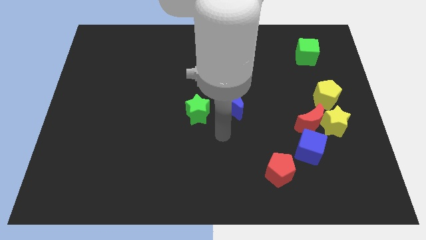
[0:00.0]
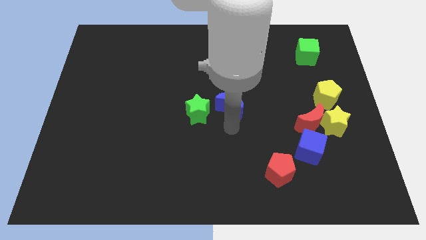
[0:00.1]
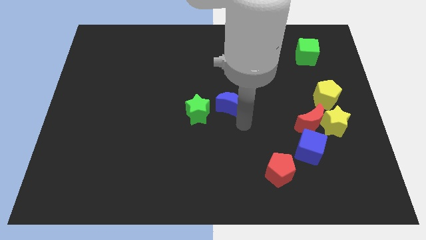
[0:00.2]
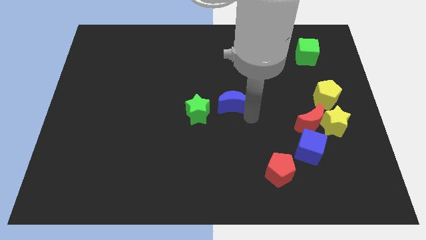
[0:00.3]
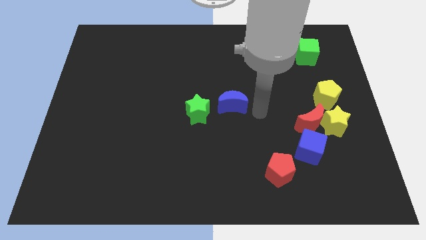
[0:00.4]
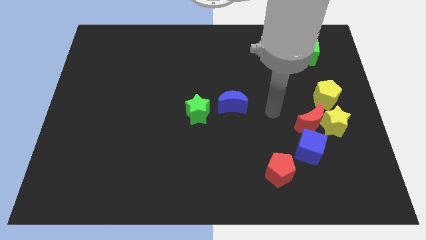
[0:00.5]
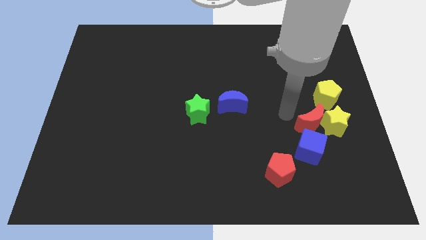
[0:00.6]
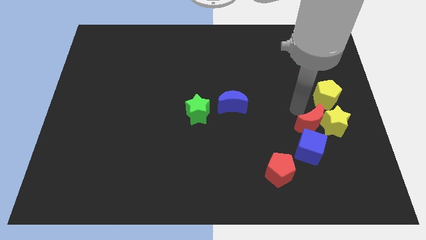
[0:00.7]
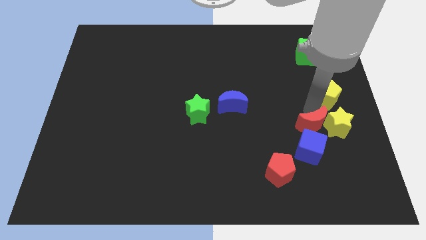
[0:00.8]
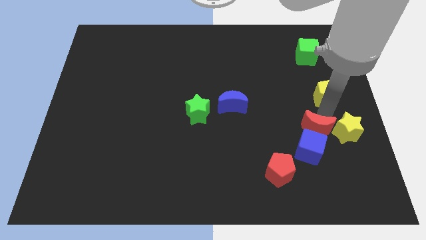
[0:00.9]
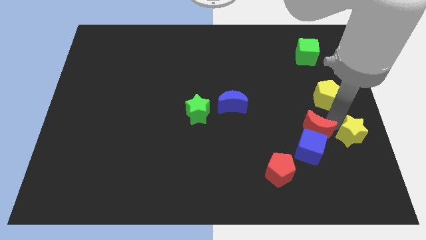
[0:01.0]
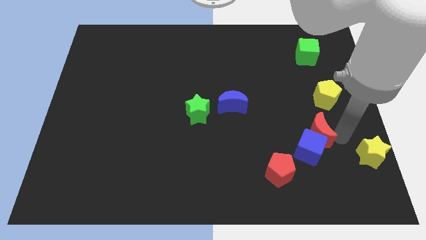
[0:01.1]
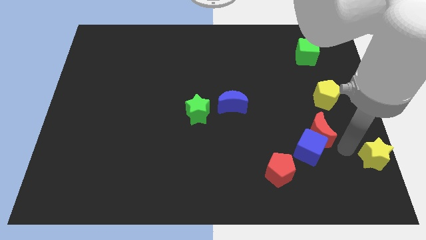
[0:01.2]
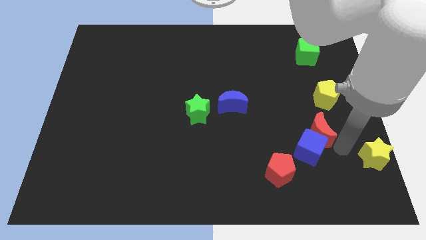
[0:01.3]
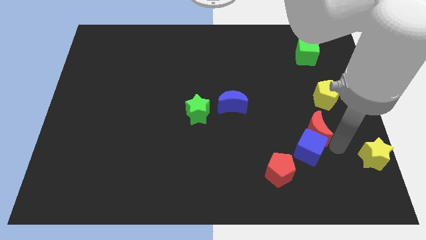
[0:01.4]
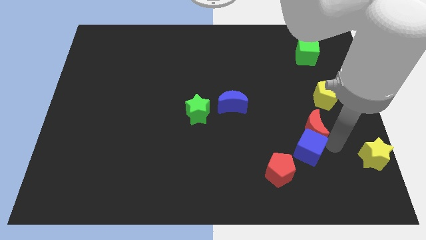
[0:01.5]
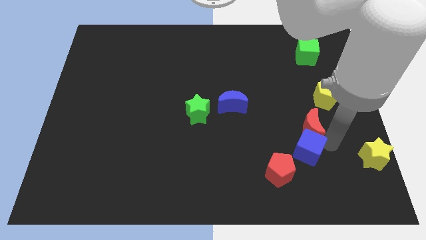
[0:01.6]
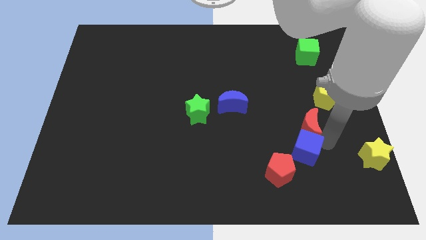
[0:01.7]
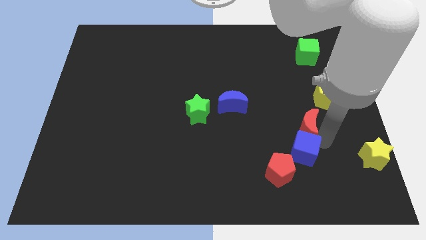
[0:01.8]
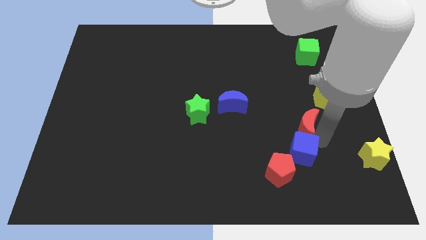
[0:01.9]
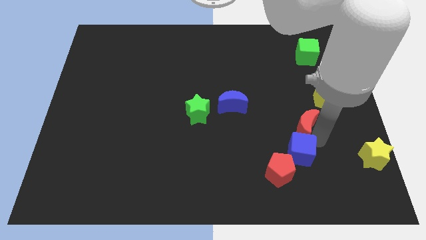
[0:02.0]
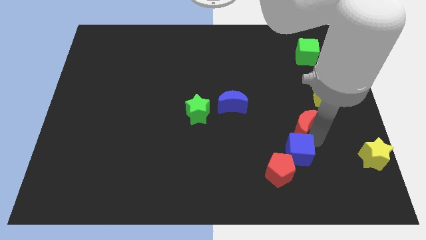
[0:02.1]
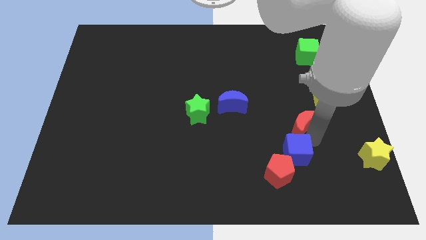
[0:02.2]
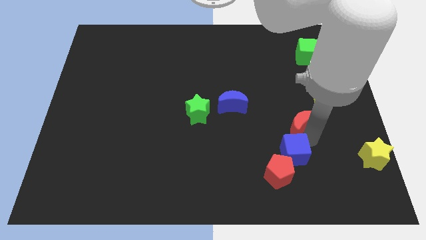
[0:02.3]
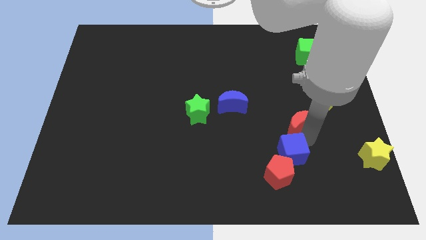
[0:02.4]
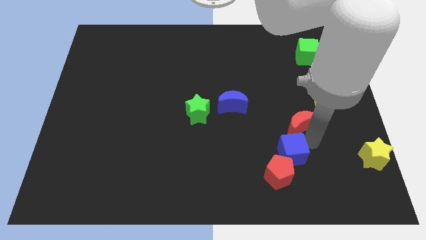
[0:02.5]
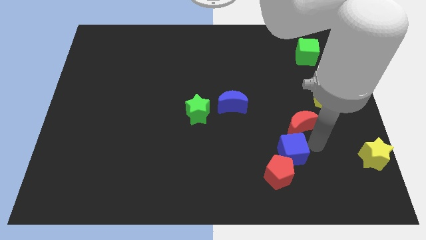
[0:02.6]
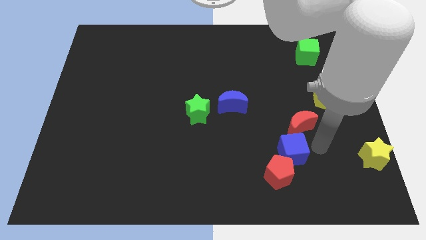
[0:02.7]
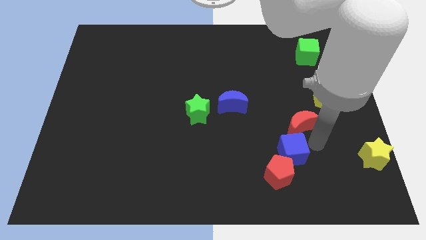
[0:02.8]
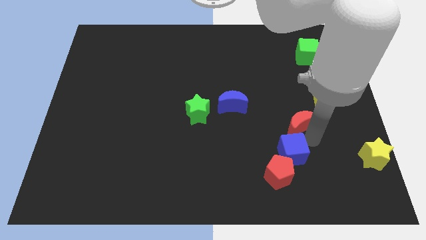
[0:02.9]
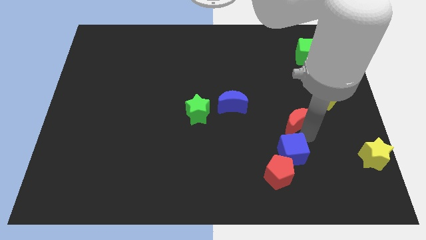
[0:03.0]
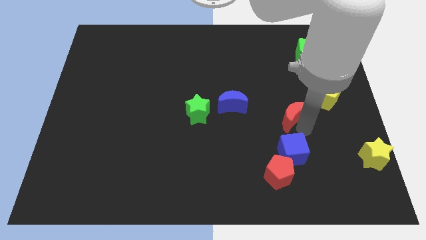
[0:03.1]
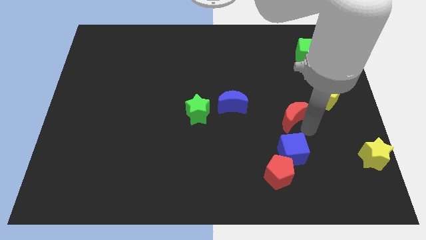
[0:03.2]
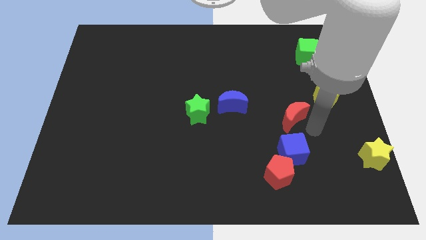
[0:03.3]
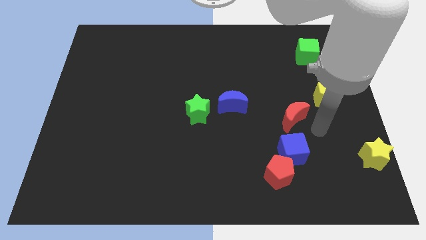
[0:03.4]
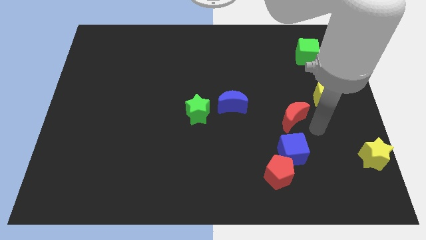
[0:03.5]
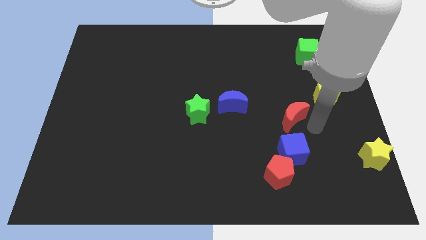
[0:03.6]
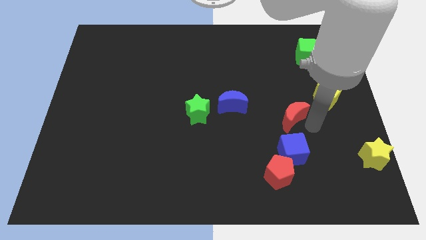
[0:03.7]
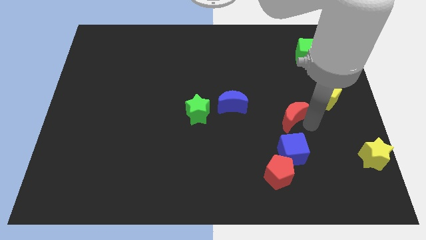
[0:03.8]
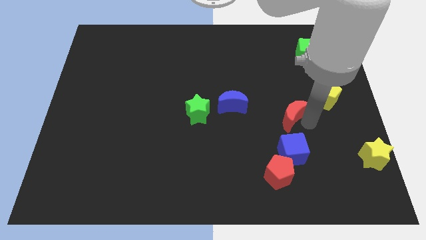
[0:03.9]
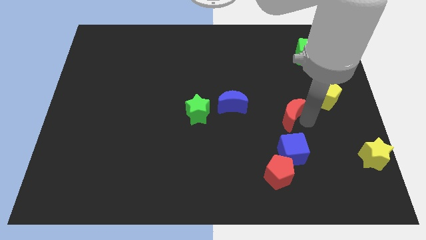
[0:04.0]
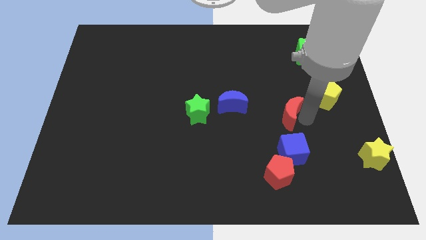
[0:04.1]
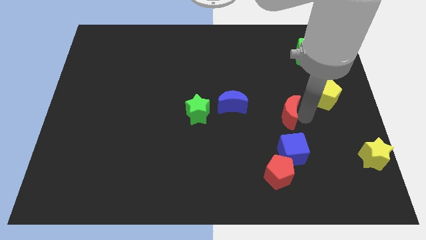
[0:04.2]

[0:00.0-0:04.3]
pull the red moon apart from the clump

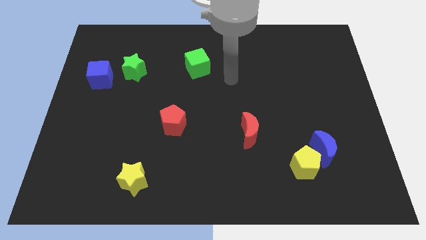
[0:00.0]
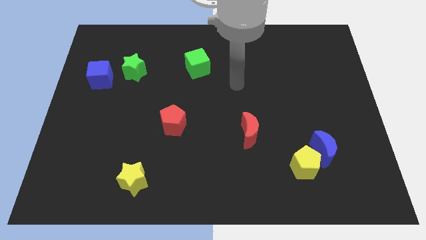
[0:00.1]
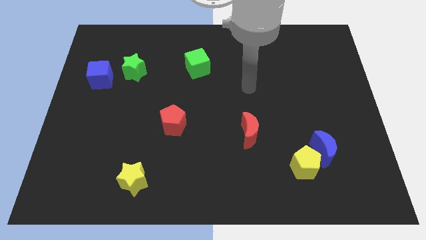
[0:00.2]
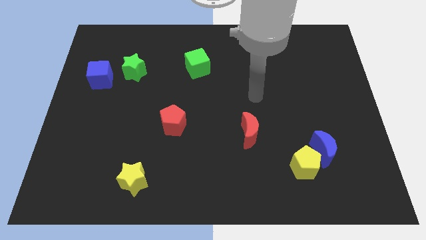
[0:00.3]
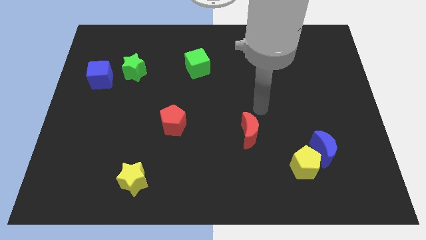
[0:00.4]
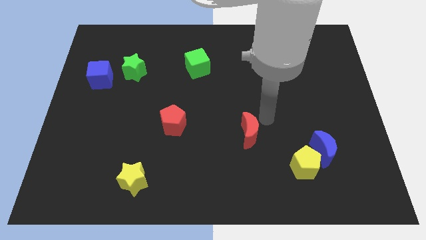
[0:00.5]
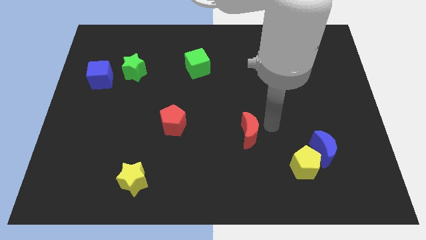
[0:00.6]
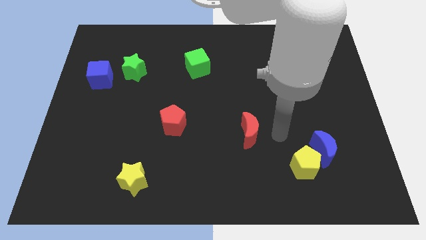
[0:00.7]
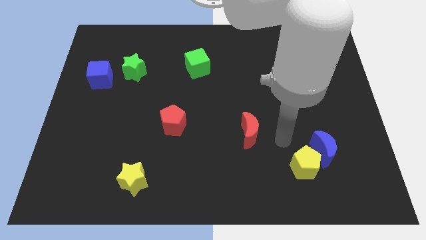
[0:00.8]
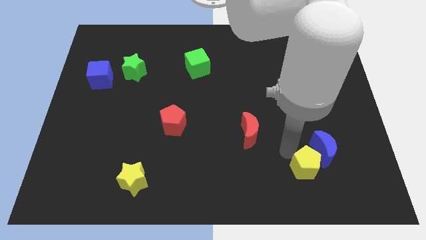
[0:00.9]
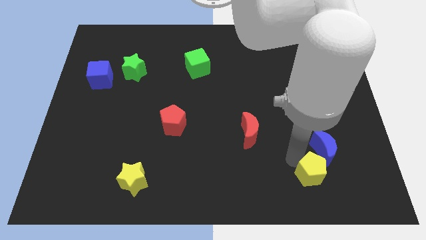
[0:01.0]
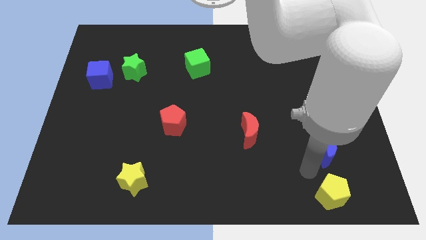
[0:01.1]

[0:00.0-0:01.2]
move the blue moon away from the yellow pentagon

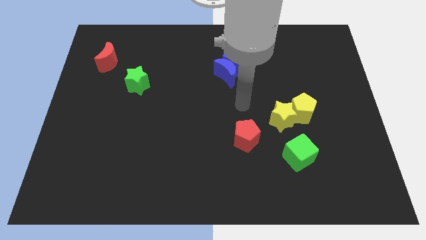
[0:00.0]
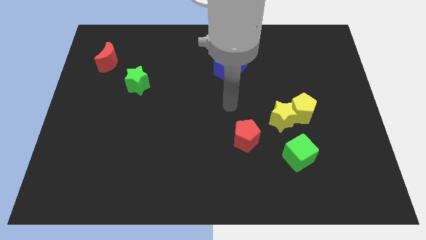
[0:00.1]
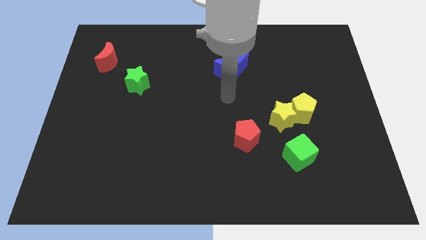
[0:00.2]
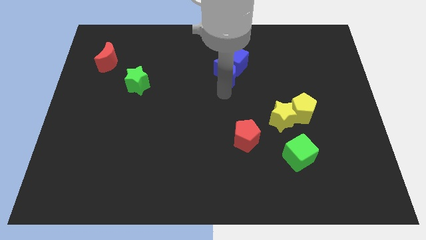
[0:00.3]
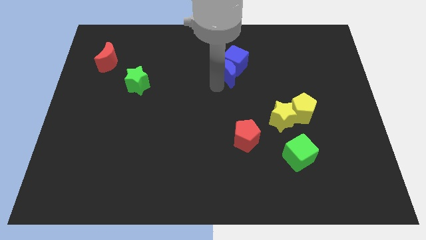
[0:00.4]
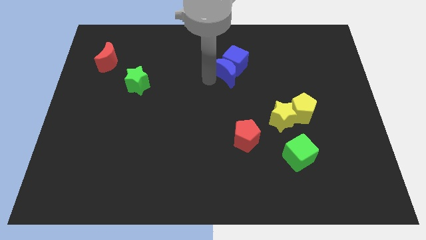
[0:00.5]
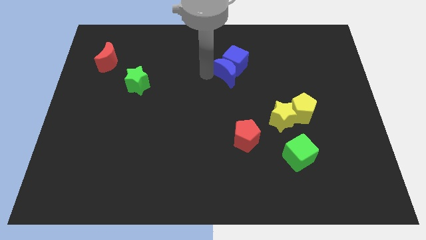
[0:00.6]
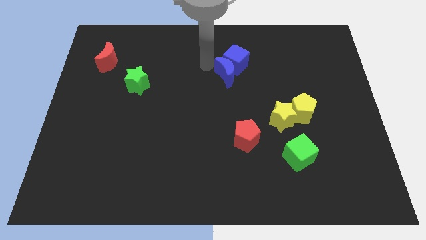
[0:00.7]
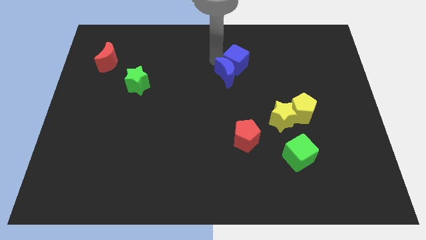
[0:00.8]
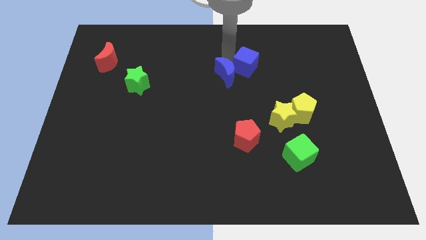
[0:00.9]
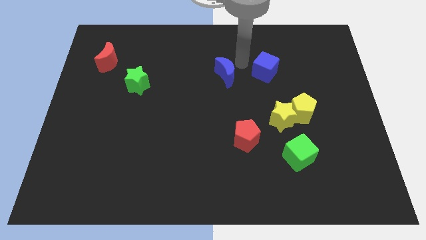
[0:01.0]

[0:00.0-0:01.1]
separate the blue moon from the blue cube

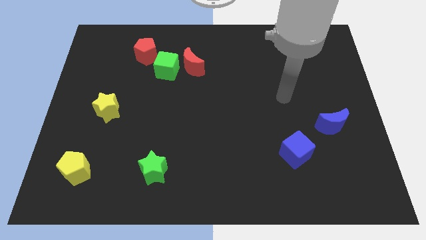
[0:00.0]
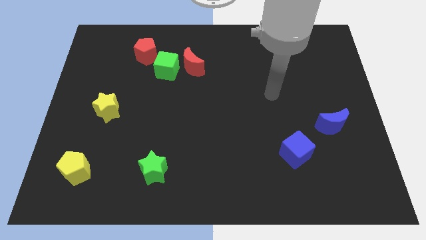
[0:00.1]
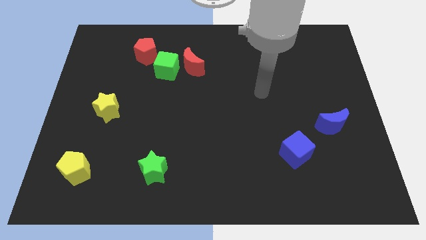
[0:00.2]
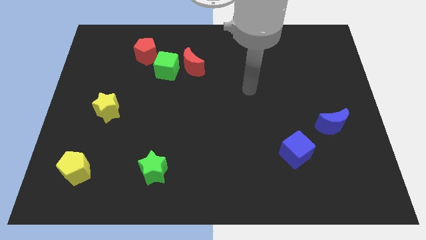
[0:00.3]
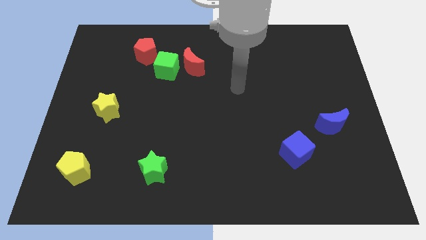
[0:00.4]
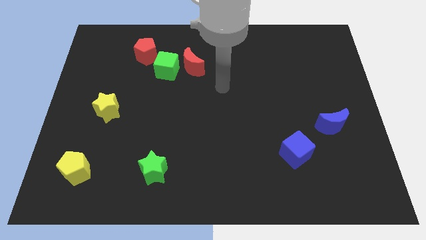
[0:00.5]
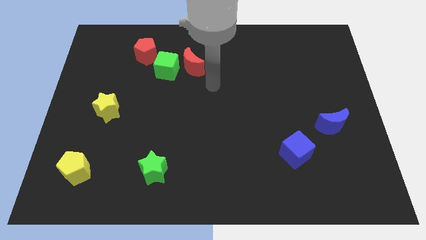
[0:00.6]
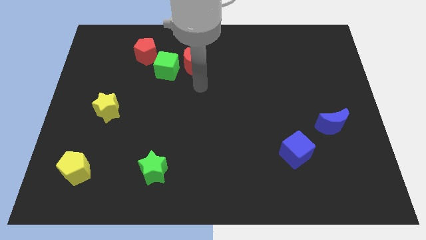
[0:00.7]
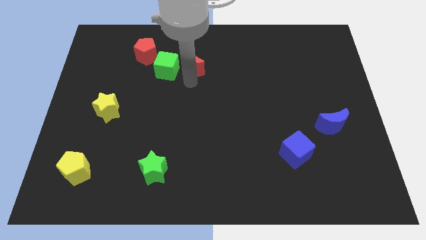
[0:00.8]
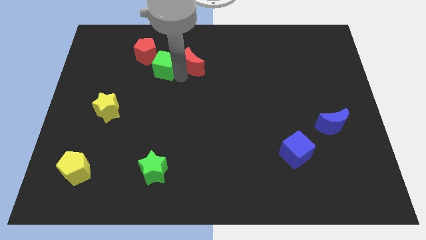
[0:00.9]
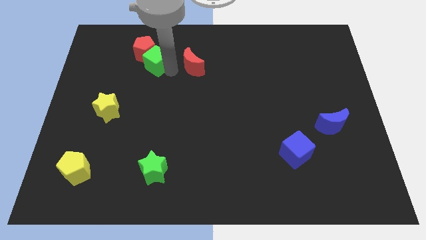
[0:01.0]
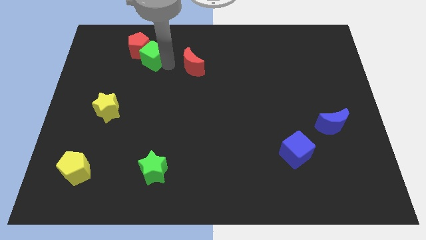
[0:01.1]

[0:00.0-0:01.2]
separate the red moon from the green cube

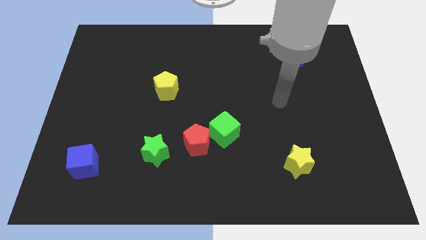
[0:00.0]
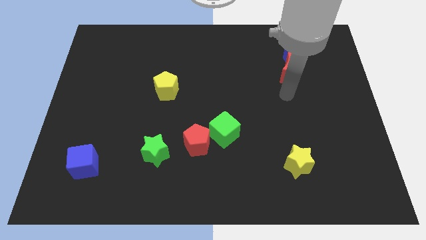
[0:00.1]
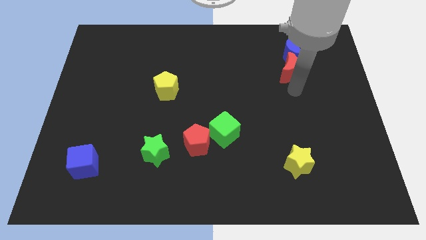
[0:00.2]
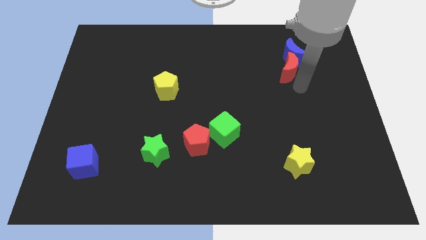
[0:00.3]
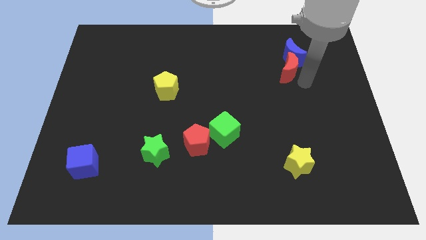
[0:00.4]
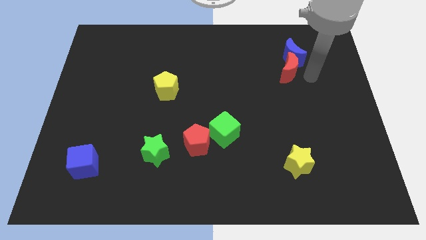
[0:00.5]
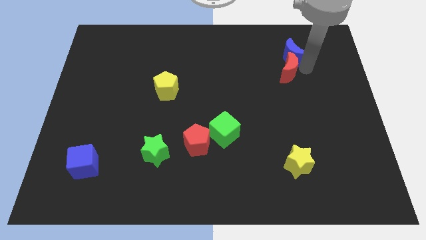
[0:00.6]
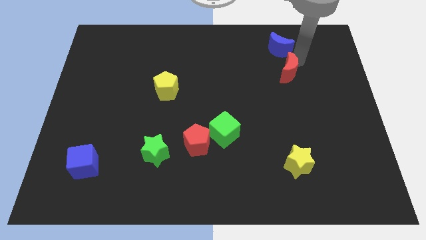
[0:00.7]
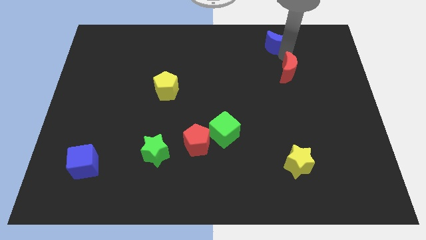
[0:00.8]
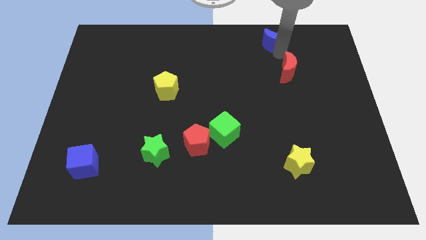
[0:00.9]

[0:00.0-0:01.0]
pull the red moon apart from the blue moon

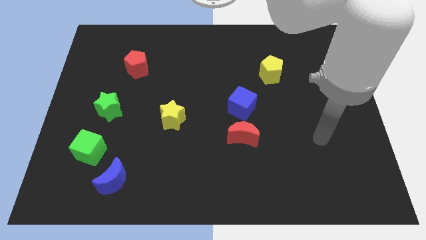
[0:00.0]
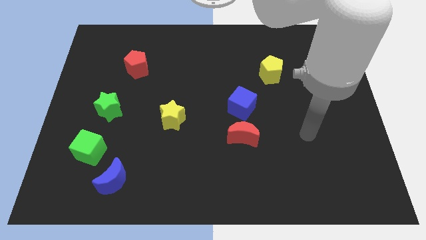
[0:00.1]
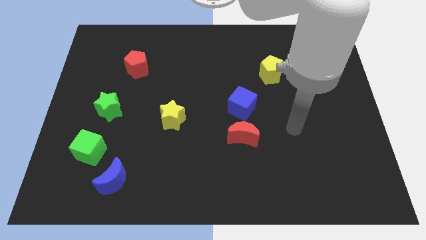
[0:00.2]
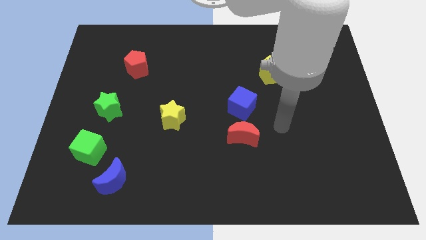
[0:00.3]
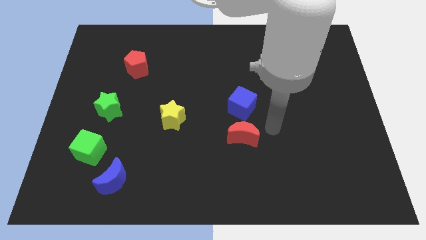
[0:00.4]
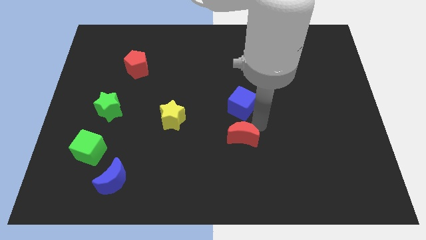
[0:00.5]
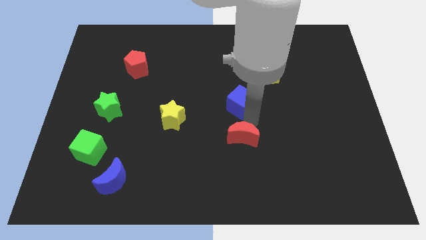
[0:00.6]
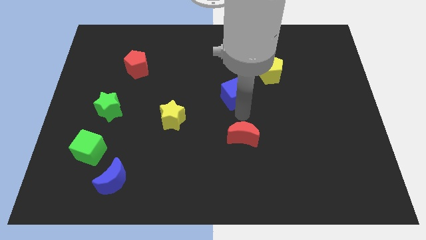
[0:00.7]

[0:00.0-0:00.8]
move the red moon away from the blue cube
